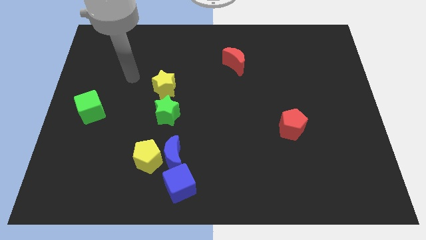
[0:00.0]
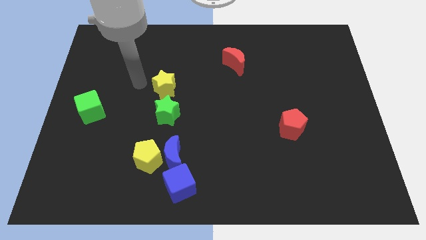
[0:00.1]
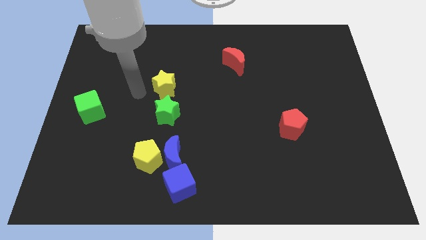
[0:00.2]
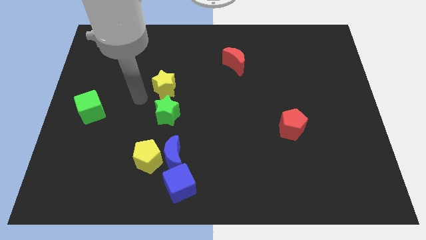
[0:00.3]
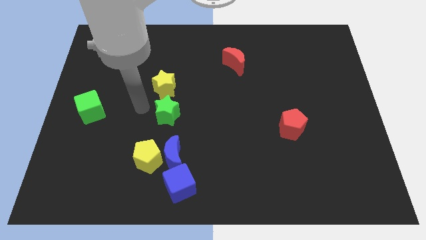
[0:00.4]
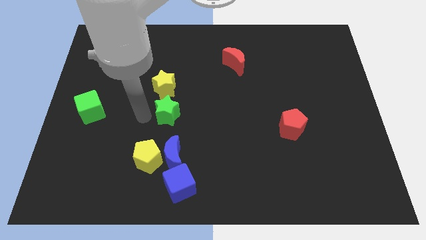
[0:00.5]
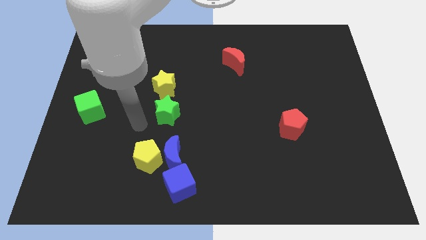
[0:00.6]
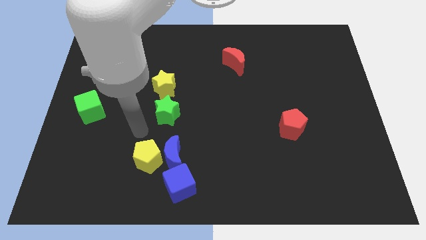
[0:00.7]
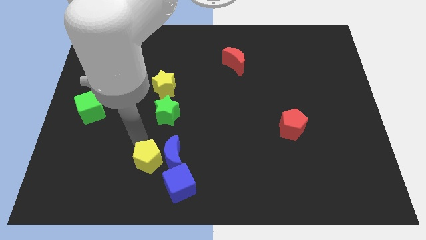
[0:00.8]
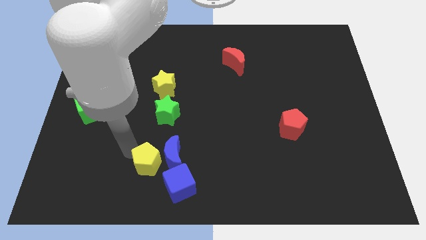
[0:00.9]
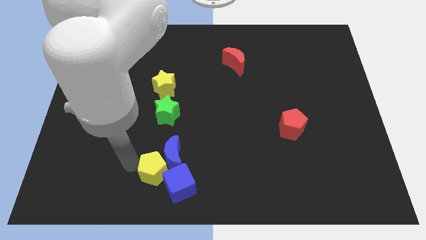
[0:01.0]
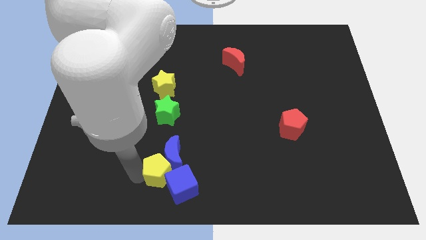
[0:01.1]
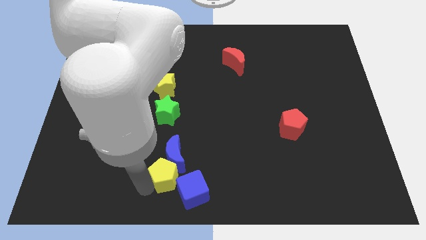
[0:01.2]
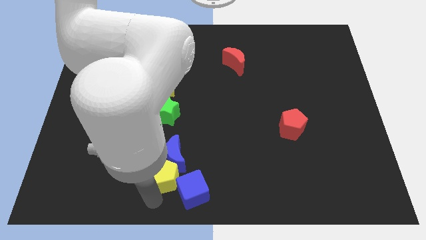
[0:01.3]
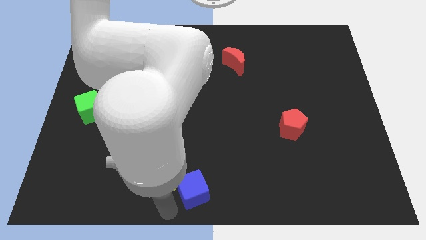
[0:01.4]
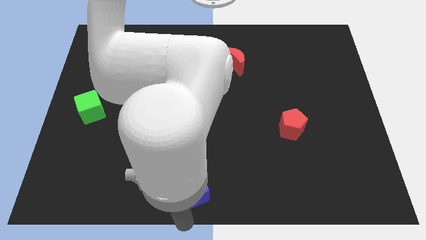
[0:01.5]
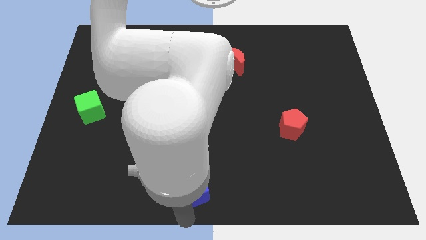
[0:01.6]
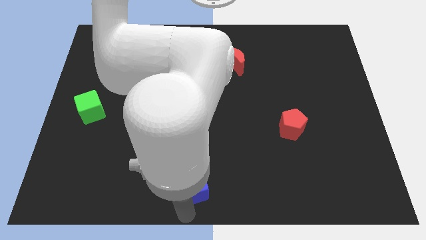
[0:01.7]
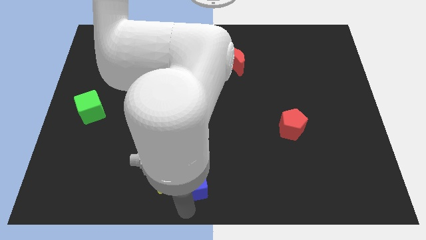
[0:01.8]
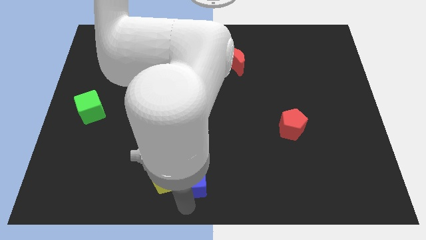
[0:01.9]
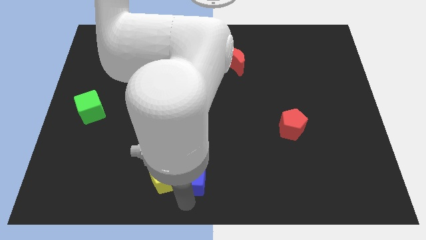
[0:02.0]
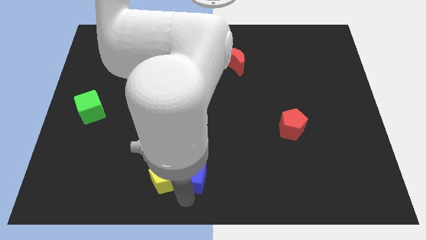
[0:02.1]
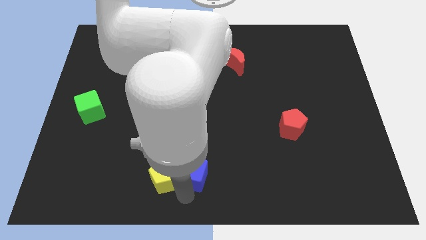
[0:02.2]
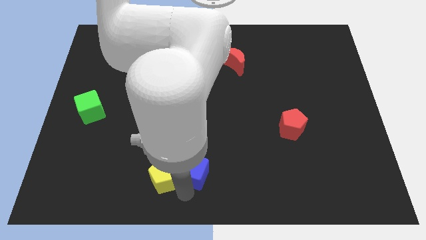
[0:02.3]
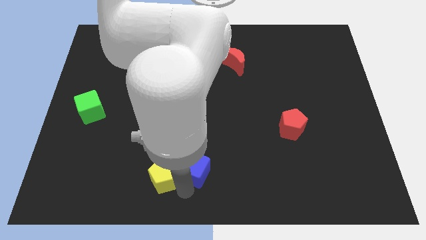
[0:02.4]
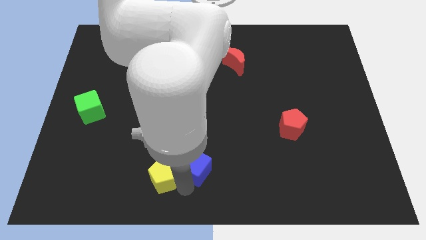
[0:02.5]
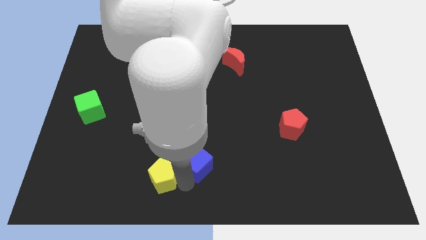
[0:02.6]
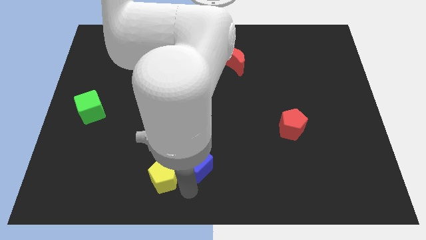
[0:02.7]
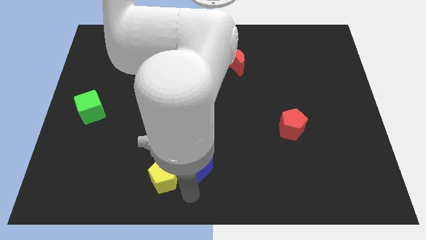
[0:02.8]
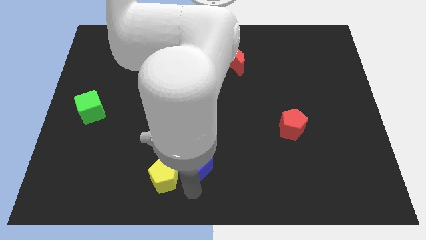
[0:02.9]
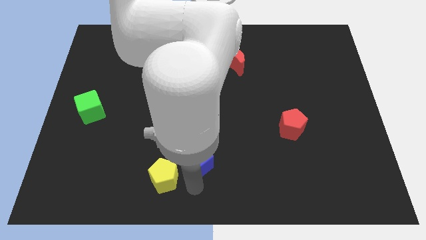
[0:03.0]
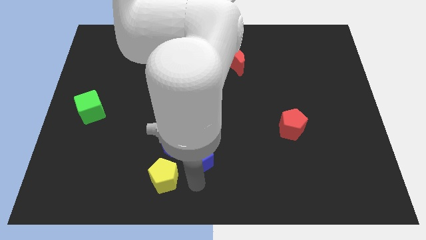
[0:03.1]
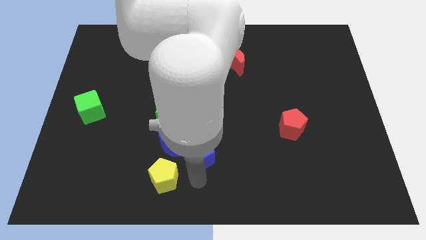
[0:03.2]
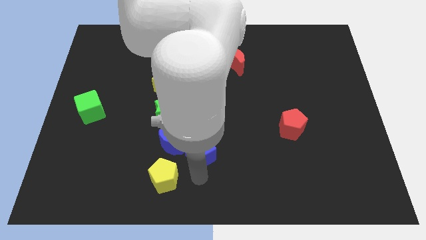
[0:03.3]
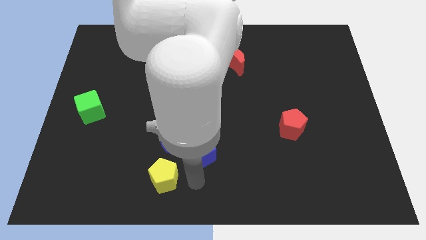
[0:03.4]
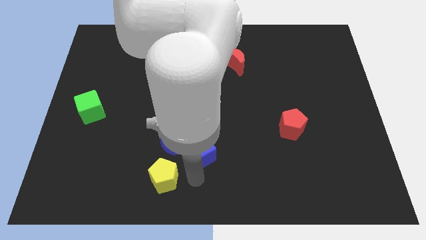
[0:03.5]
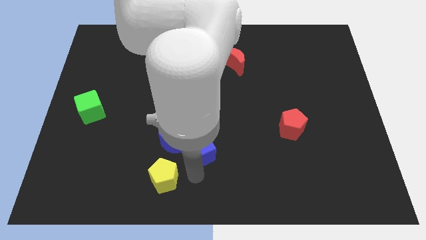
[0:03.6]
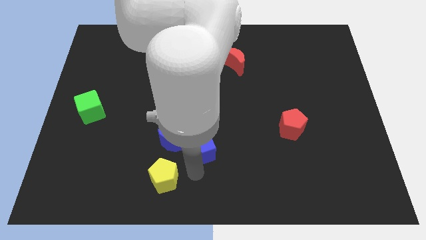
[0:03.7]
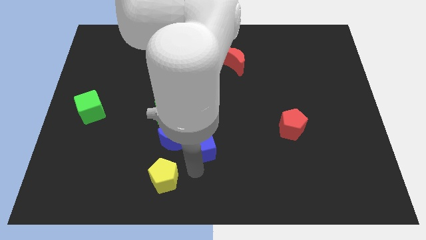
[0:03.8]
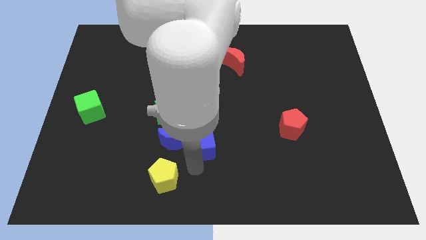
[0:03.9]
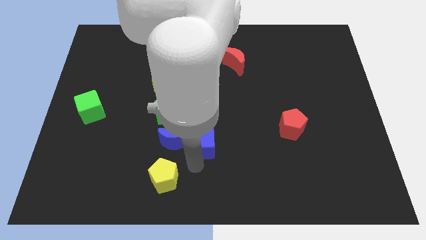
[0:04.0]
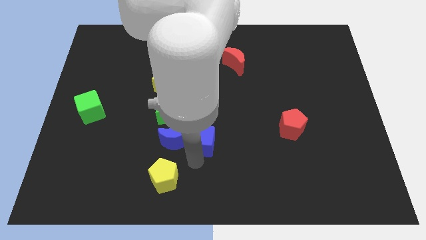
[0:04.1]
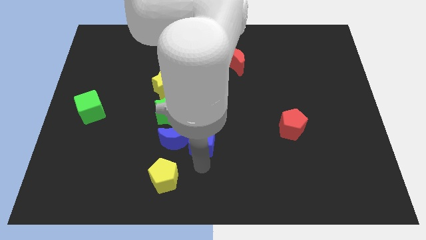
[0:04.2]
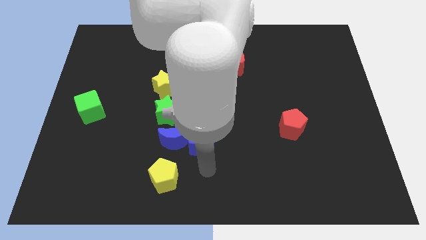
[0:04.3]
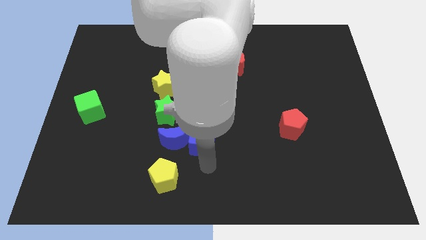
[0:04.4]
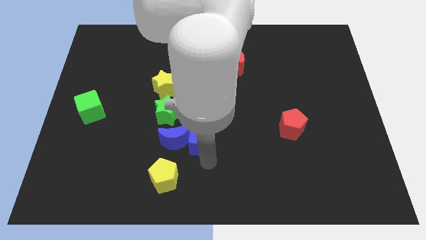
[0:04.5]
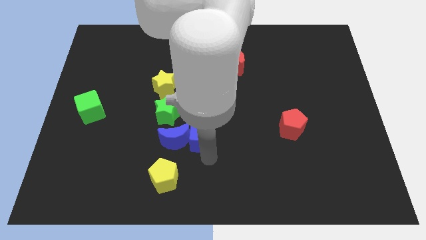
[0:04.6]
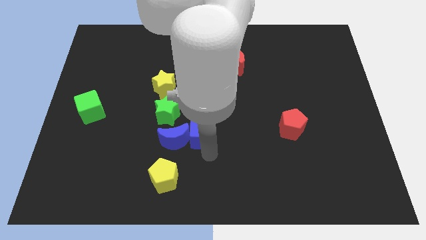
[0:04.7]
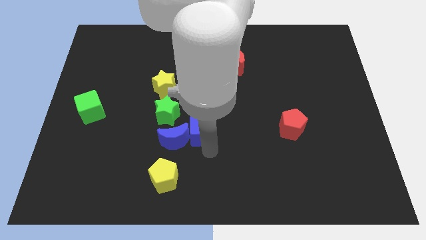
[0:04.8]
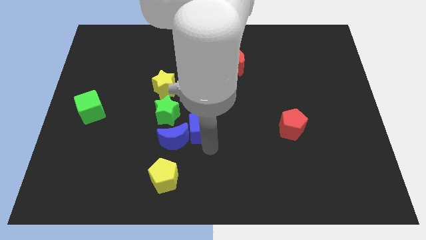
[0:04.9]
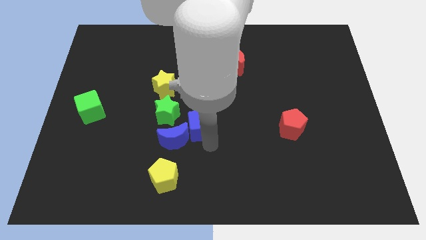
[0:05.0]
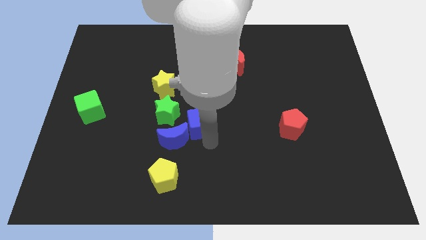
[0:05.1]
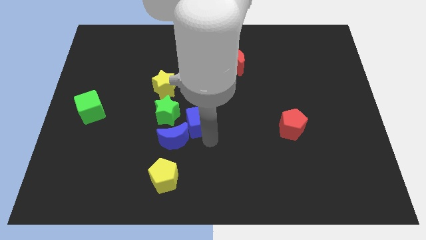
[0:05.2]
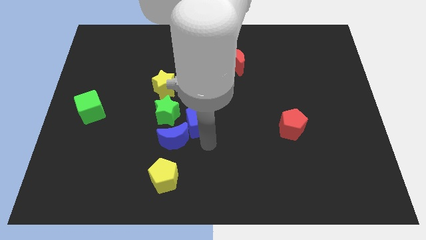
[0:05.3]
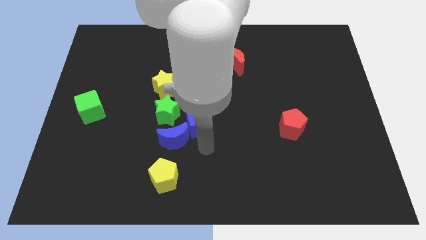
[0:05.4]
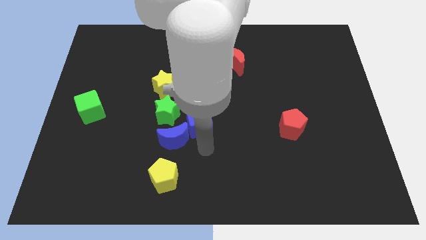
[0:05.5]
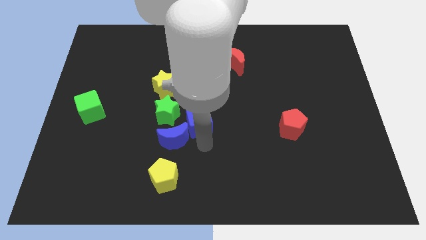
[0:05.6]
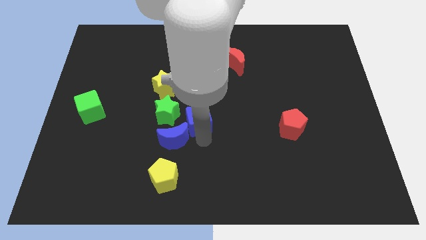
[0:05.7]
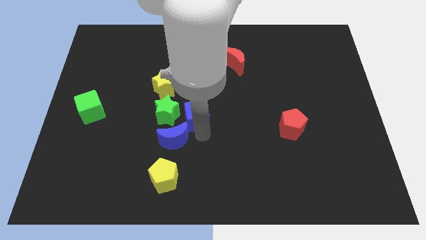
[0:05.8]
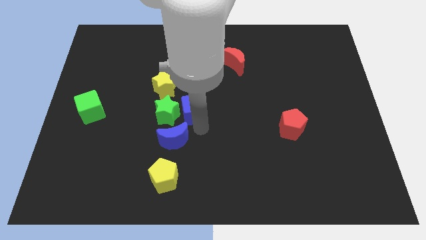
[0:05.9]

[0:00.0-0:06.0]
push the blue cube to the top right of the green star

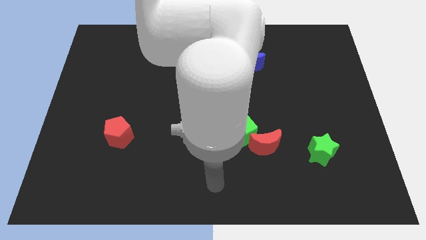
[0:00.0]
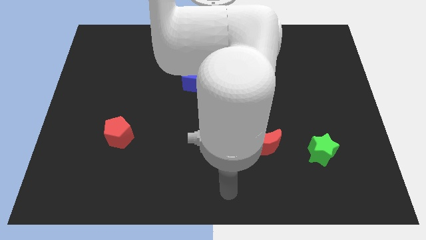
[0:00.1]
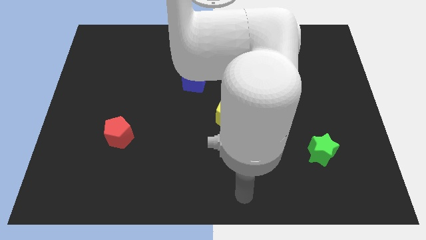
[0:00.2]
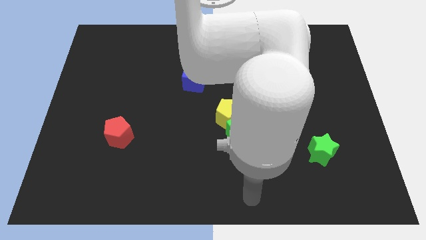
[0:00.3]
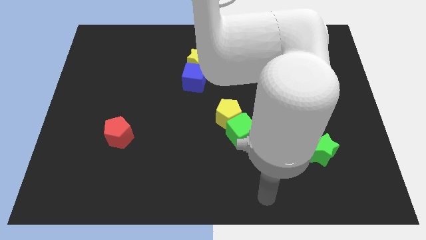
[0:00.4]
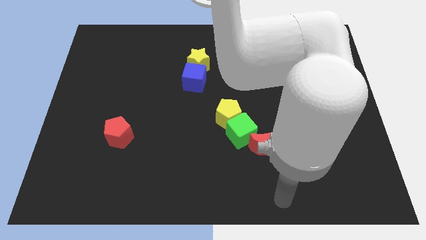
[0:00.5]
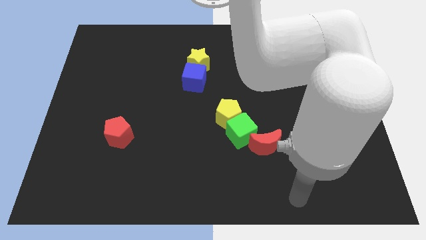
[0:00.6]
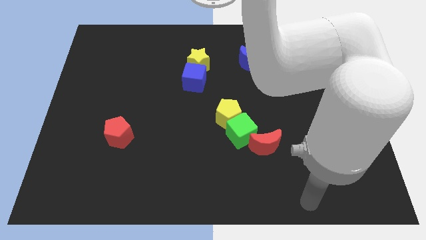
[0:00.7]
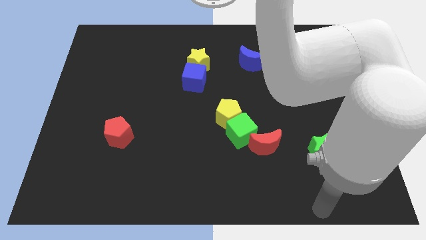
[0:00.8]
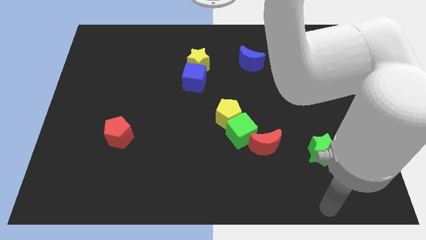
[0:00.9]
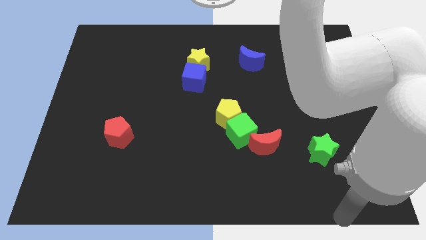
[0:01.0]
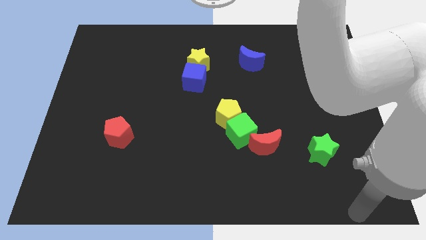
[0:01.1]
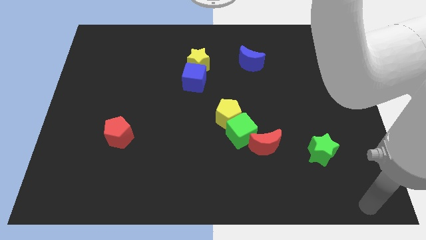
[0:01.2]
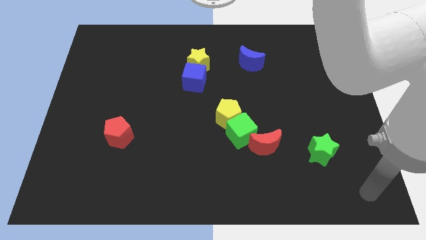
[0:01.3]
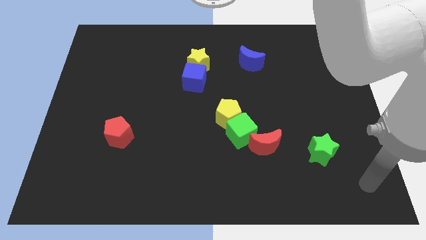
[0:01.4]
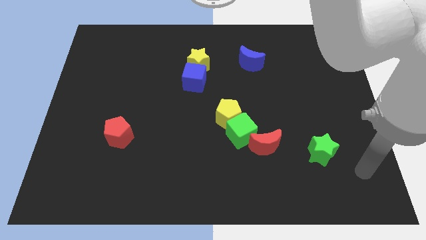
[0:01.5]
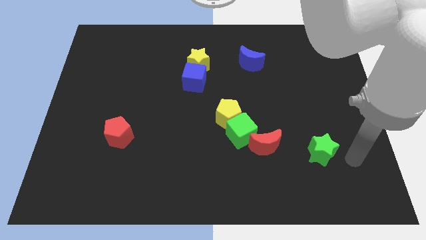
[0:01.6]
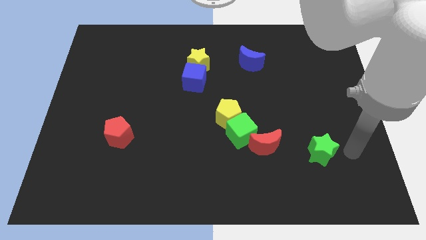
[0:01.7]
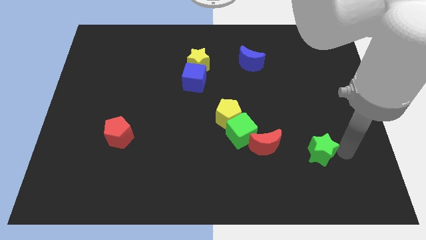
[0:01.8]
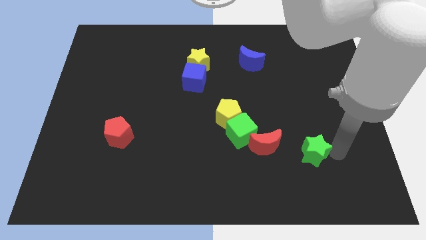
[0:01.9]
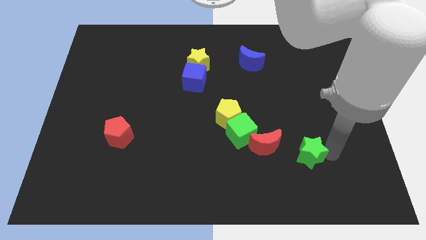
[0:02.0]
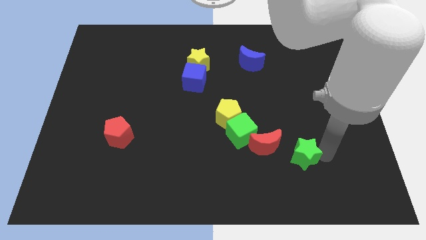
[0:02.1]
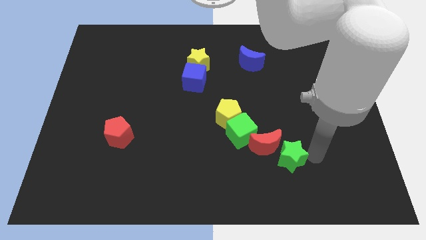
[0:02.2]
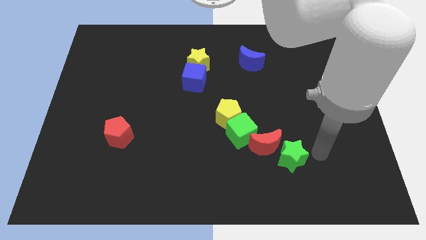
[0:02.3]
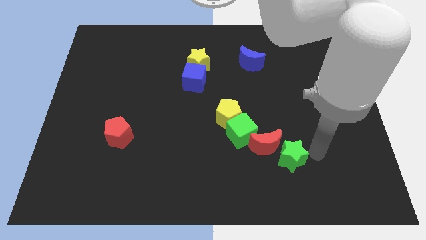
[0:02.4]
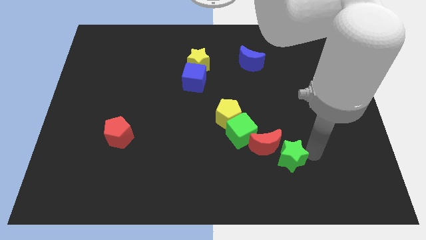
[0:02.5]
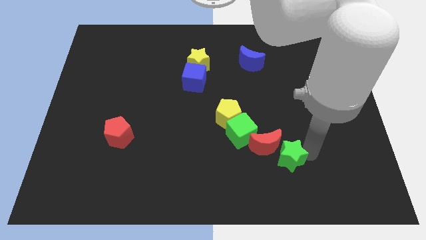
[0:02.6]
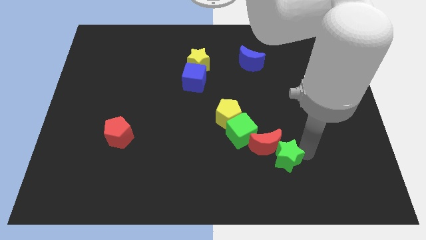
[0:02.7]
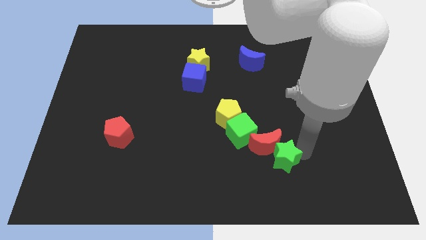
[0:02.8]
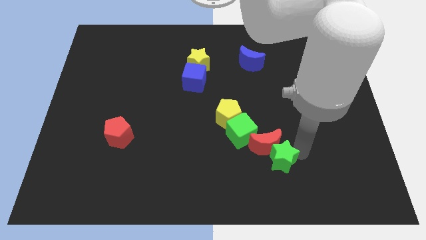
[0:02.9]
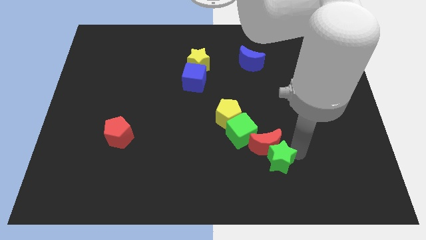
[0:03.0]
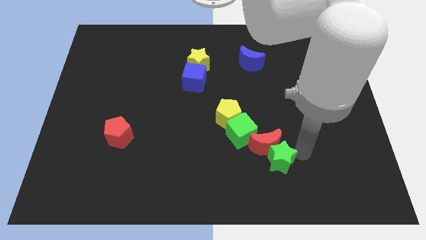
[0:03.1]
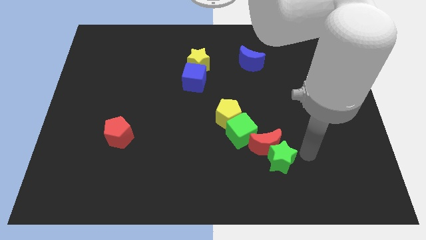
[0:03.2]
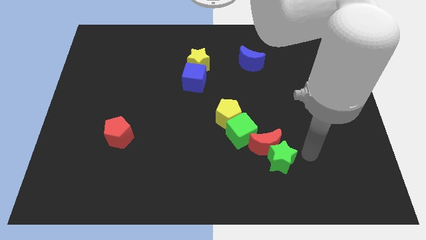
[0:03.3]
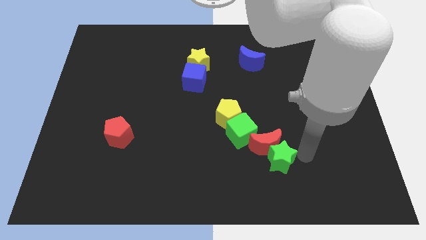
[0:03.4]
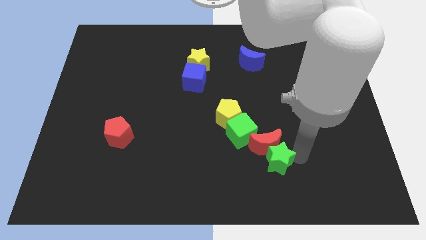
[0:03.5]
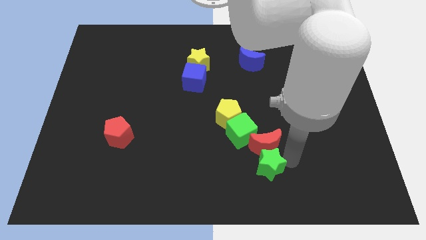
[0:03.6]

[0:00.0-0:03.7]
push the green star diagonally down and to the left of the red moon
